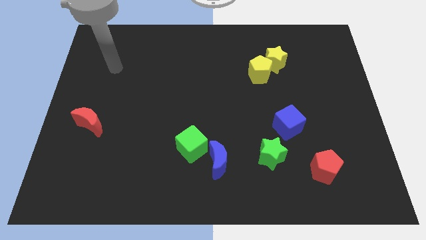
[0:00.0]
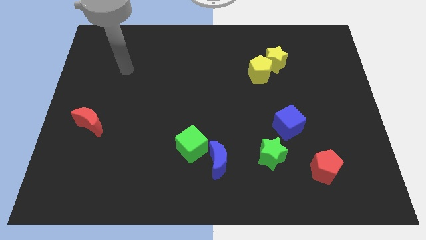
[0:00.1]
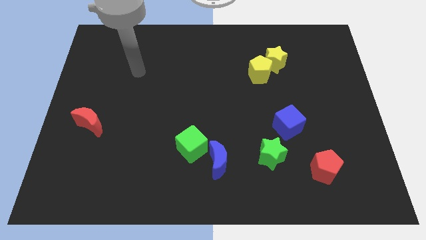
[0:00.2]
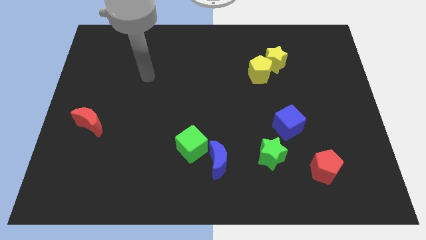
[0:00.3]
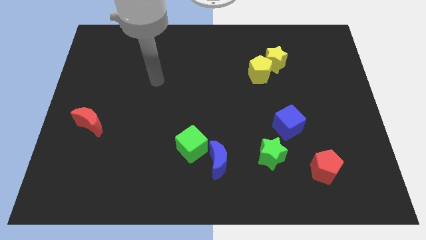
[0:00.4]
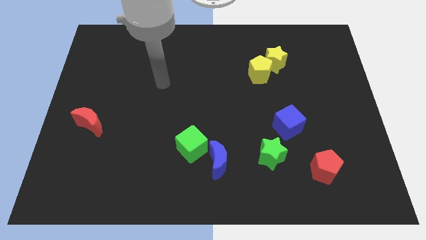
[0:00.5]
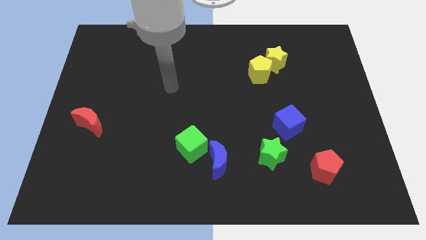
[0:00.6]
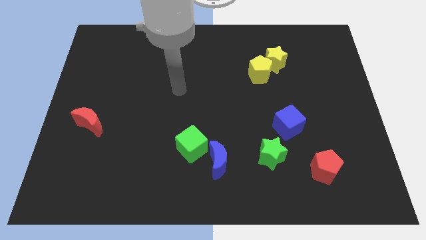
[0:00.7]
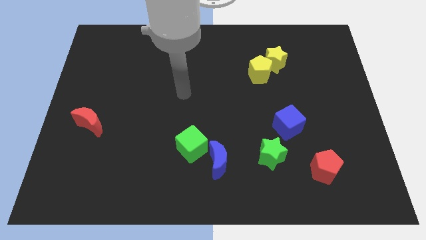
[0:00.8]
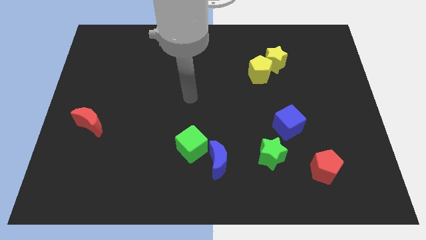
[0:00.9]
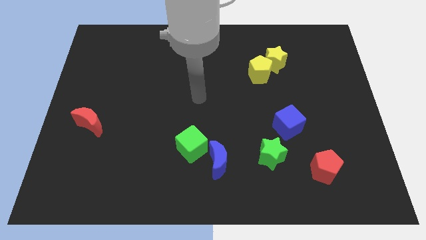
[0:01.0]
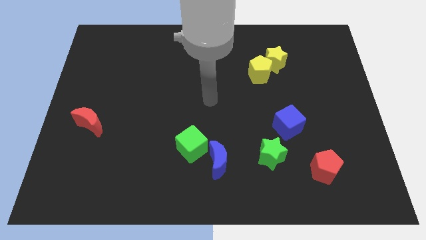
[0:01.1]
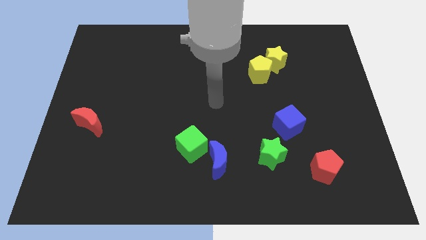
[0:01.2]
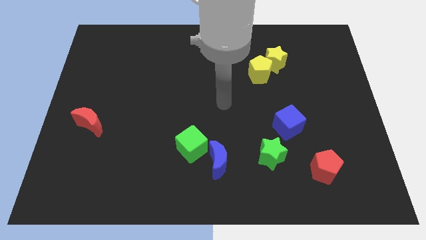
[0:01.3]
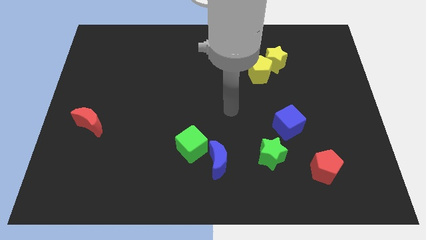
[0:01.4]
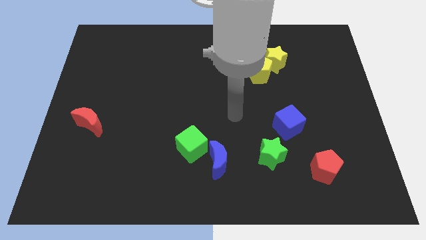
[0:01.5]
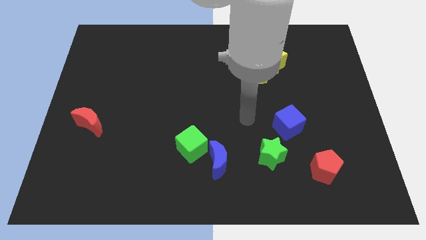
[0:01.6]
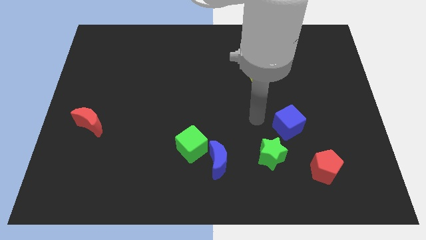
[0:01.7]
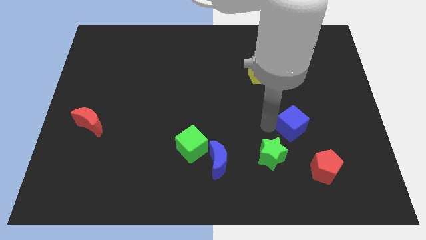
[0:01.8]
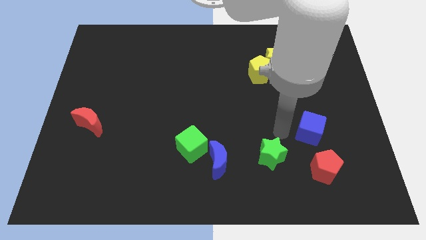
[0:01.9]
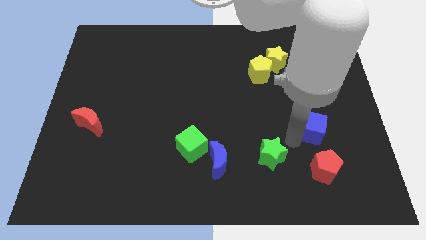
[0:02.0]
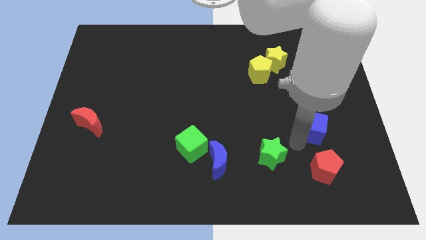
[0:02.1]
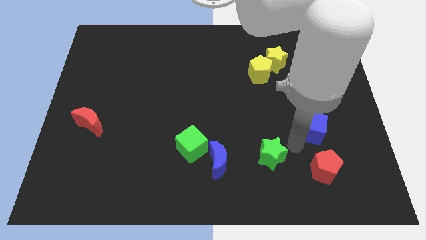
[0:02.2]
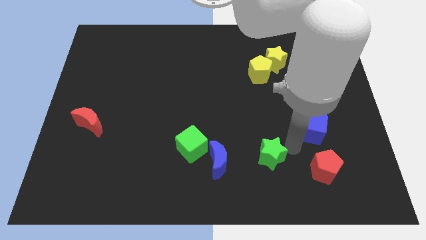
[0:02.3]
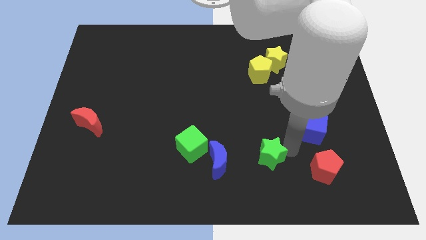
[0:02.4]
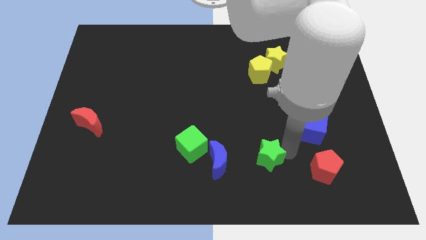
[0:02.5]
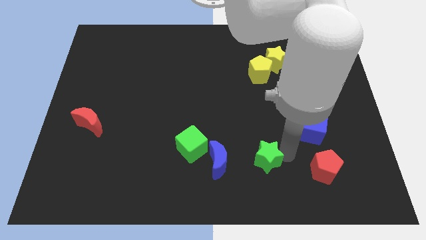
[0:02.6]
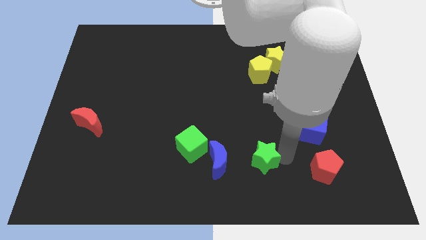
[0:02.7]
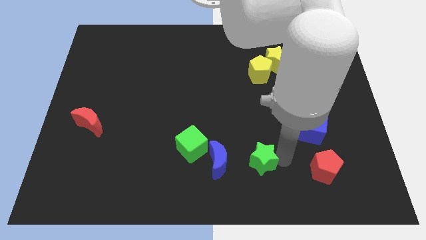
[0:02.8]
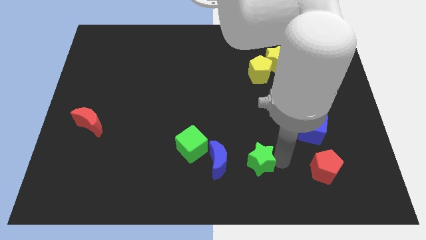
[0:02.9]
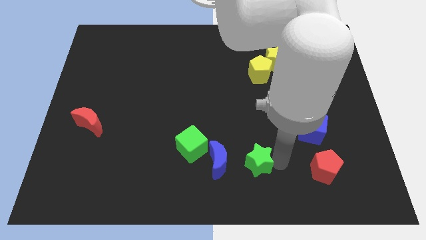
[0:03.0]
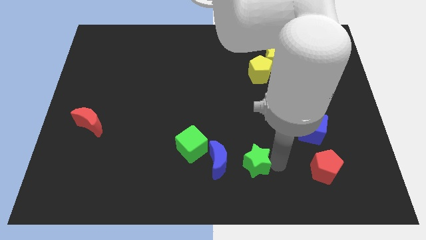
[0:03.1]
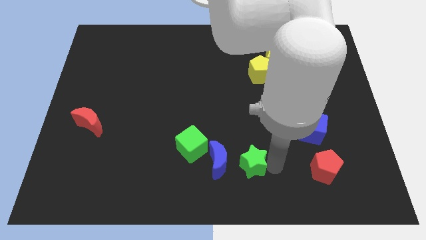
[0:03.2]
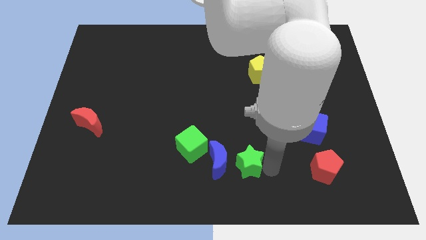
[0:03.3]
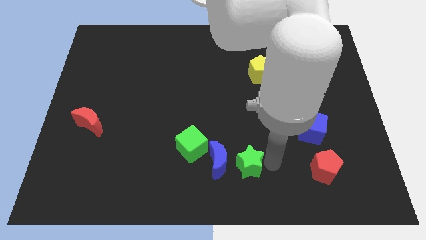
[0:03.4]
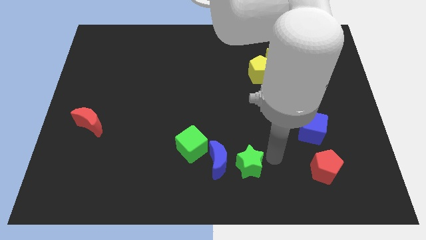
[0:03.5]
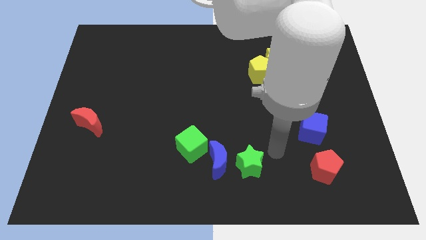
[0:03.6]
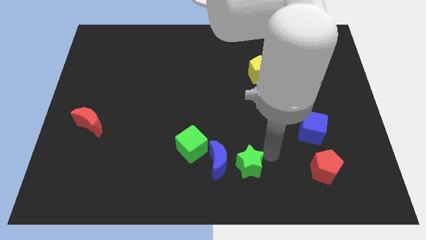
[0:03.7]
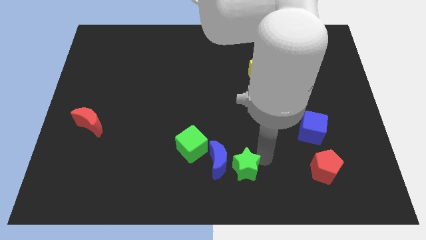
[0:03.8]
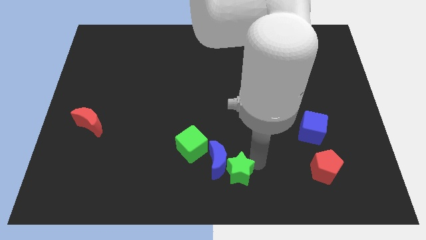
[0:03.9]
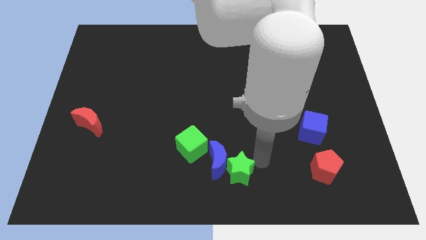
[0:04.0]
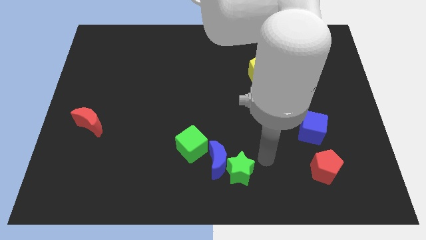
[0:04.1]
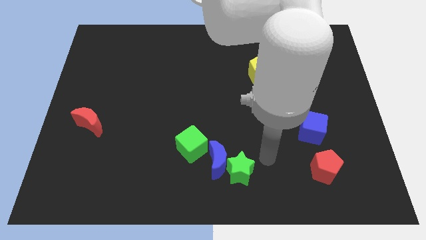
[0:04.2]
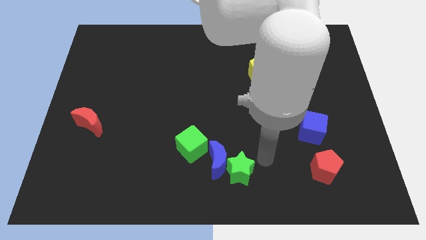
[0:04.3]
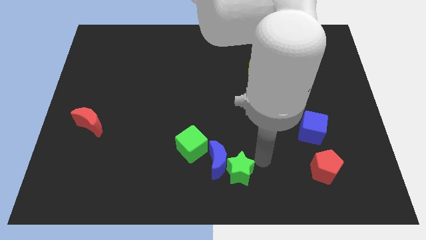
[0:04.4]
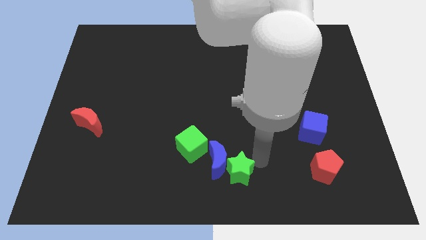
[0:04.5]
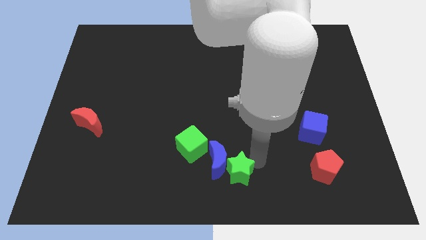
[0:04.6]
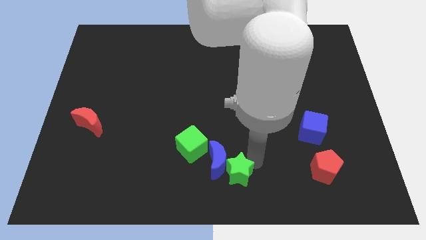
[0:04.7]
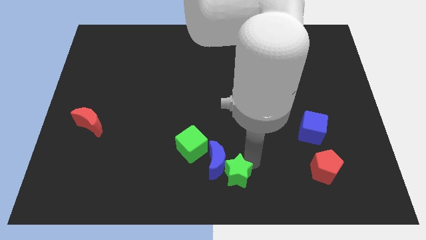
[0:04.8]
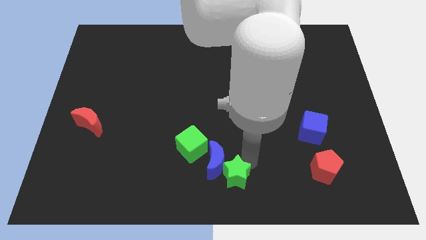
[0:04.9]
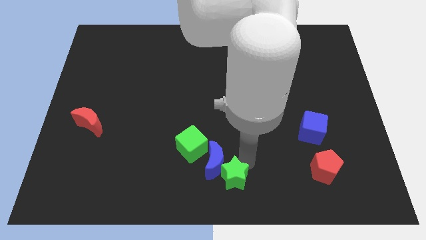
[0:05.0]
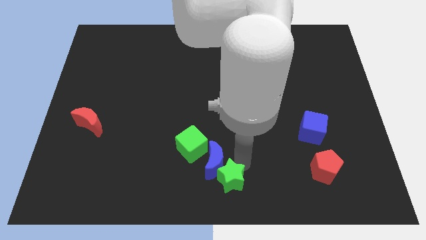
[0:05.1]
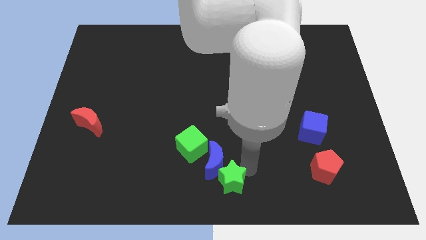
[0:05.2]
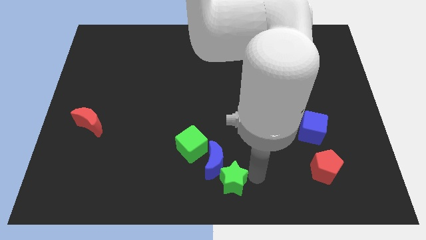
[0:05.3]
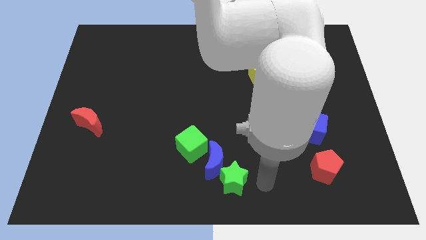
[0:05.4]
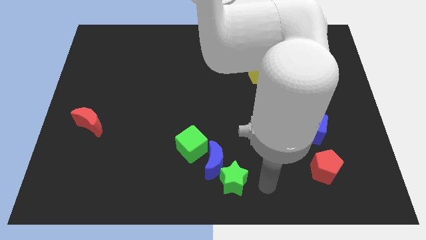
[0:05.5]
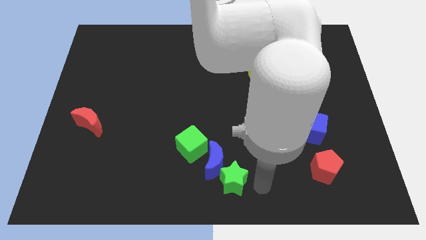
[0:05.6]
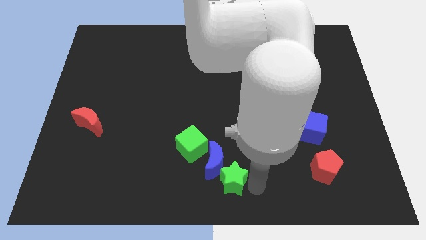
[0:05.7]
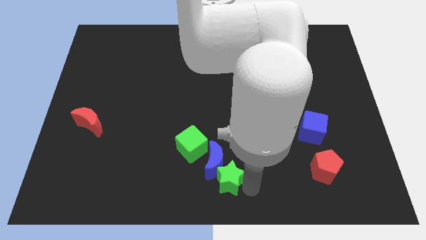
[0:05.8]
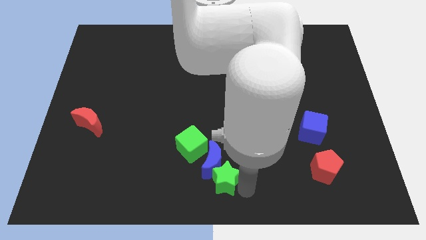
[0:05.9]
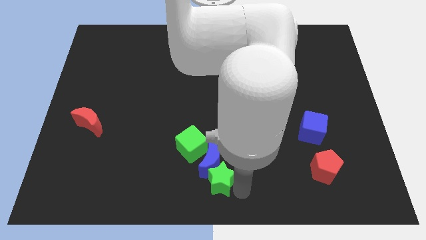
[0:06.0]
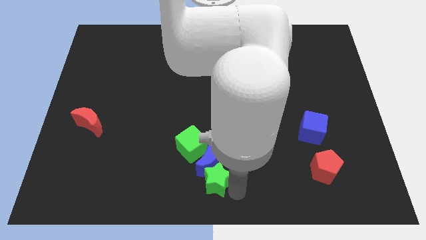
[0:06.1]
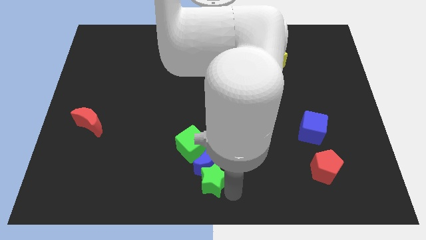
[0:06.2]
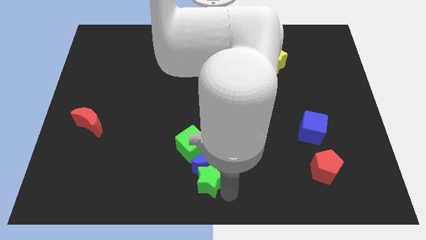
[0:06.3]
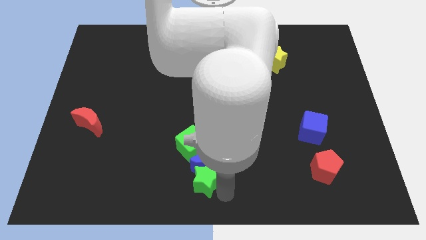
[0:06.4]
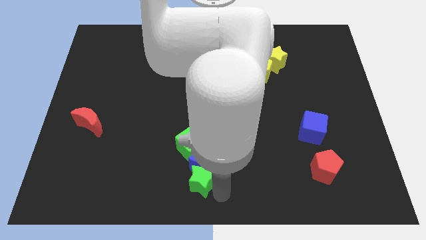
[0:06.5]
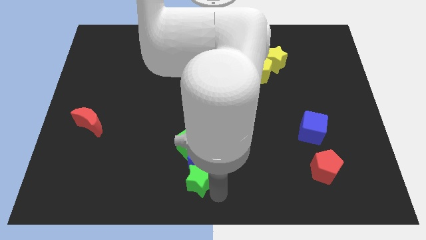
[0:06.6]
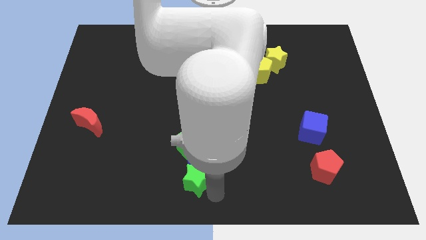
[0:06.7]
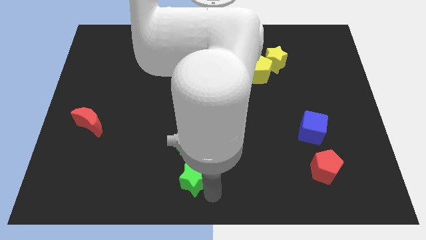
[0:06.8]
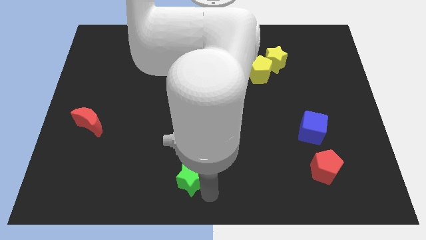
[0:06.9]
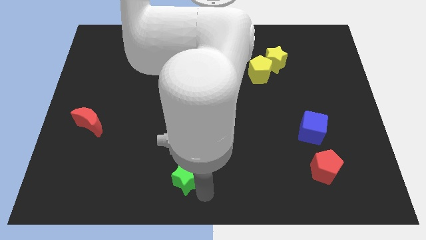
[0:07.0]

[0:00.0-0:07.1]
put the green star to the left of the blue moon
